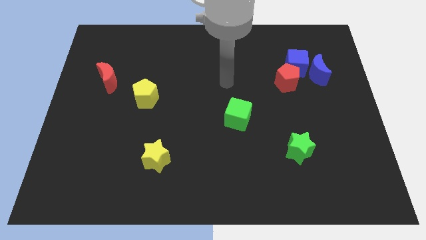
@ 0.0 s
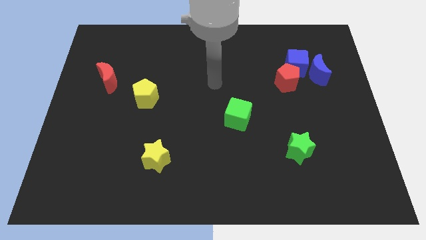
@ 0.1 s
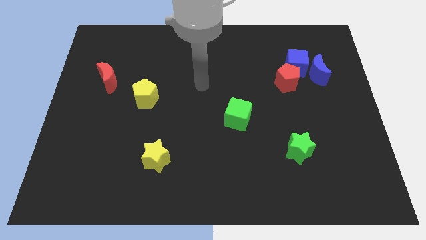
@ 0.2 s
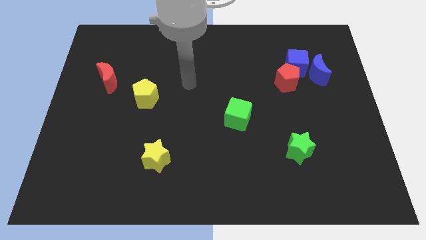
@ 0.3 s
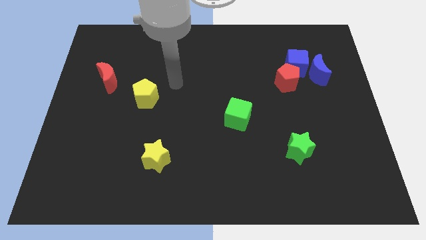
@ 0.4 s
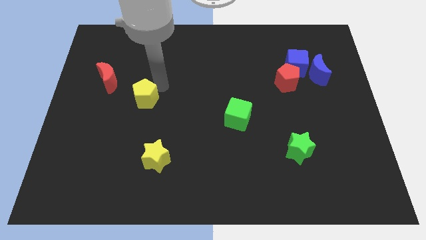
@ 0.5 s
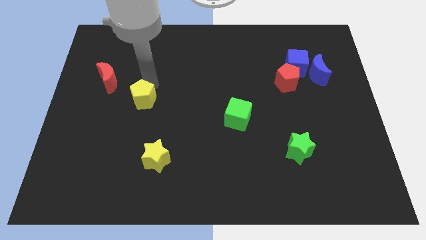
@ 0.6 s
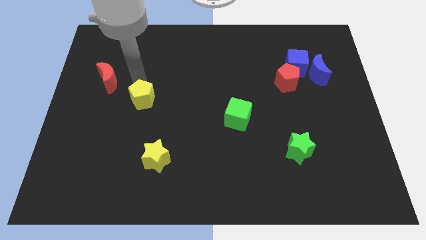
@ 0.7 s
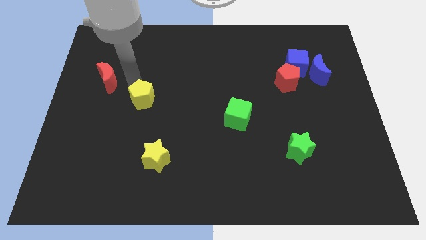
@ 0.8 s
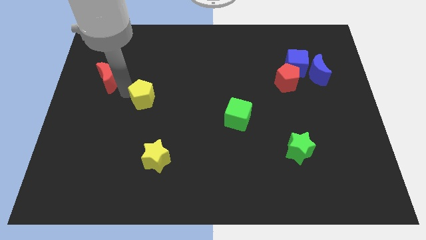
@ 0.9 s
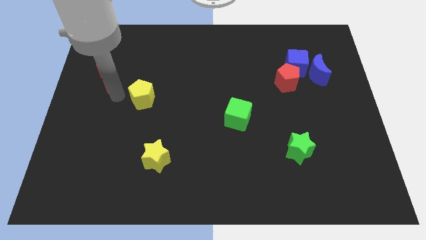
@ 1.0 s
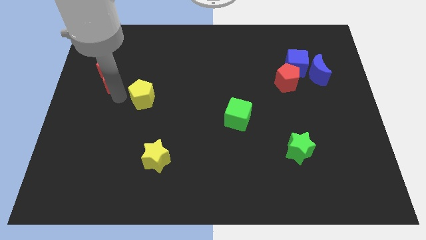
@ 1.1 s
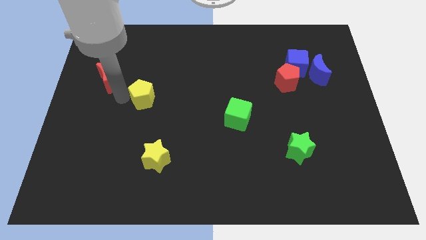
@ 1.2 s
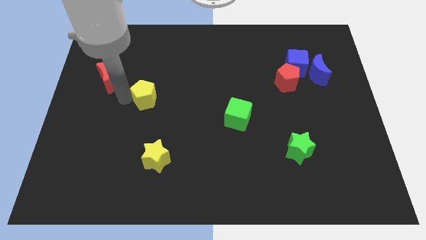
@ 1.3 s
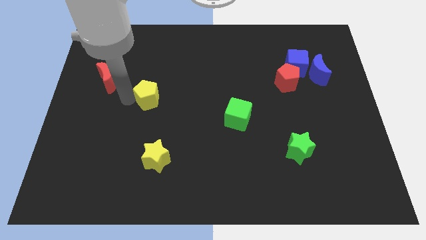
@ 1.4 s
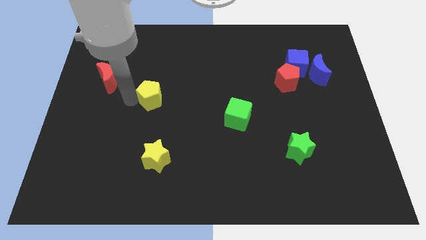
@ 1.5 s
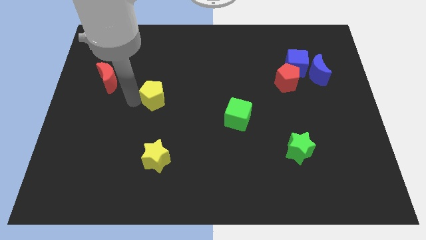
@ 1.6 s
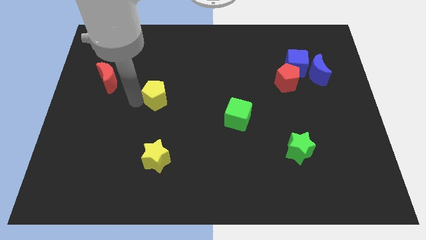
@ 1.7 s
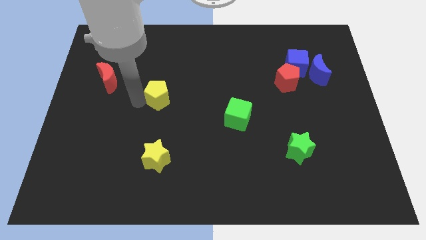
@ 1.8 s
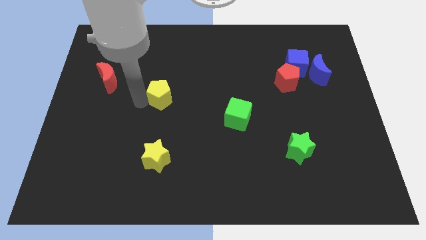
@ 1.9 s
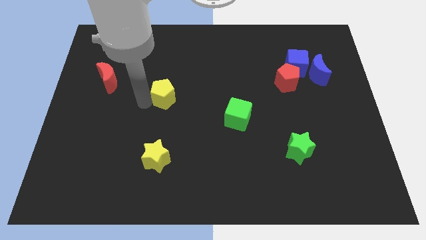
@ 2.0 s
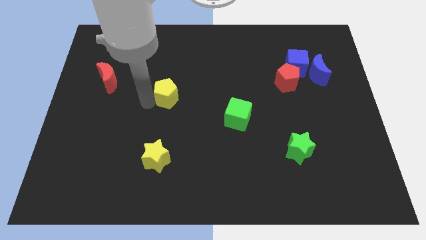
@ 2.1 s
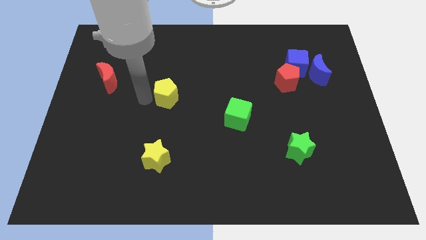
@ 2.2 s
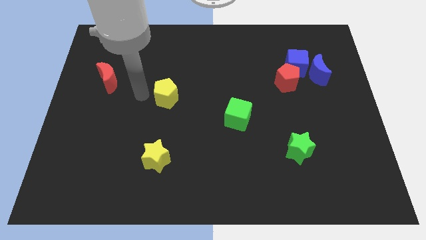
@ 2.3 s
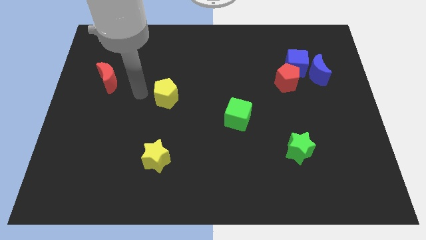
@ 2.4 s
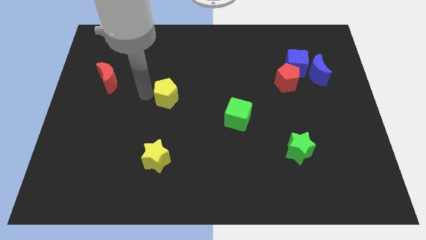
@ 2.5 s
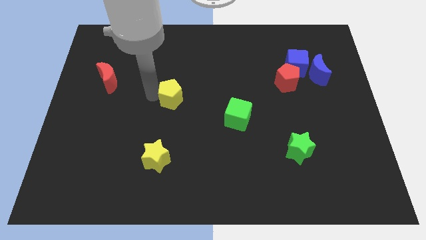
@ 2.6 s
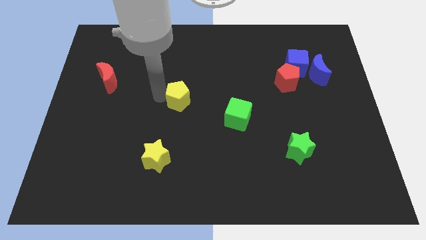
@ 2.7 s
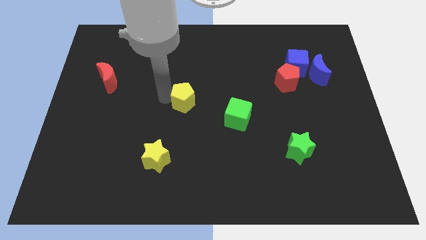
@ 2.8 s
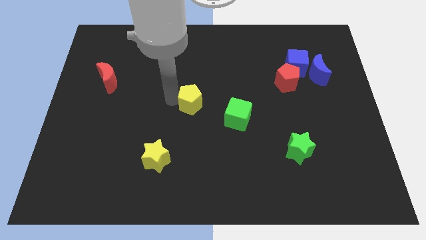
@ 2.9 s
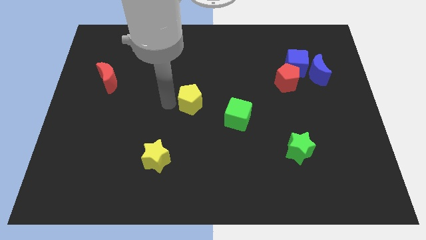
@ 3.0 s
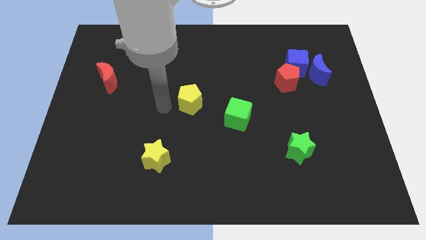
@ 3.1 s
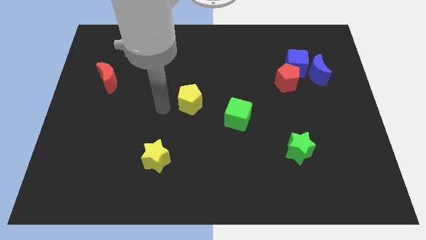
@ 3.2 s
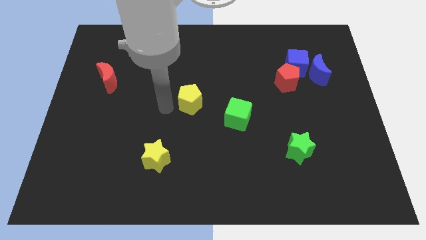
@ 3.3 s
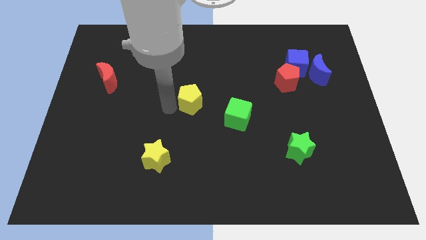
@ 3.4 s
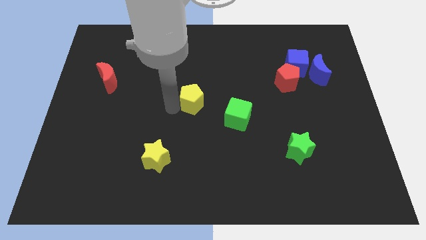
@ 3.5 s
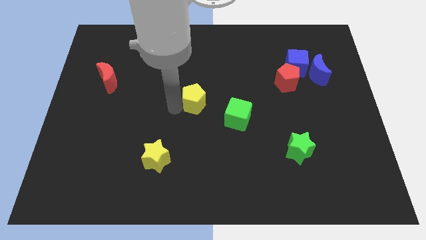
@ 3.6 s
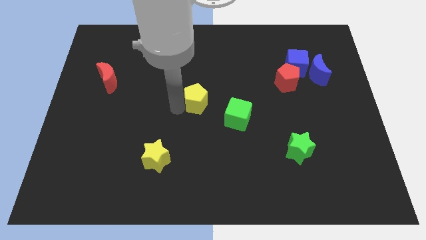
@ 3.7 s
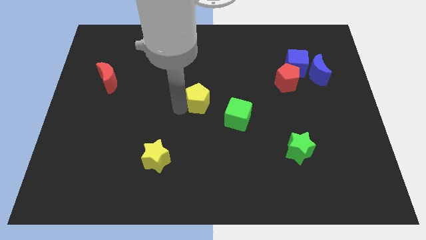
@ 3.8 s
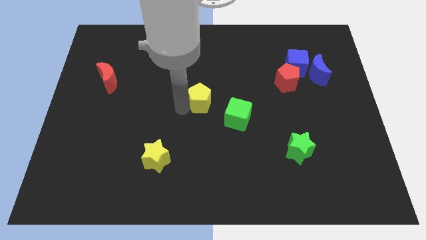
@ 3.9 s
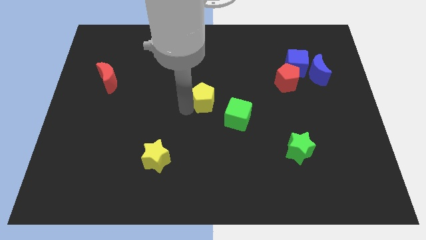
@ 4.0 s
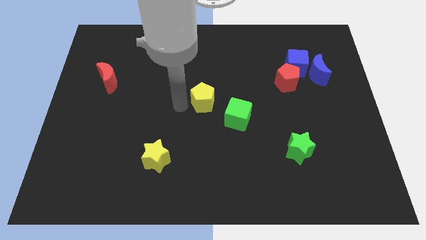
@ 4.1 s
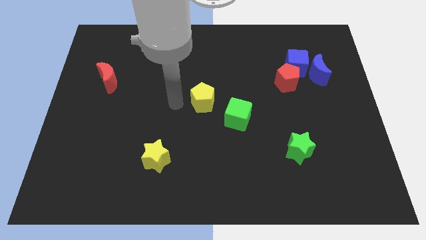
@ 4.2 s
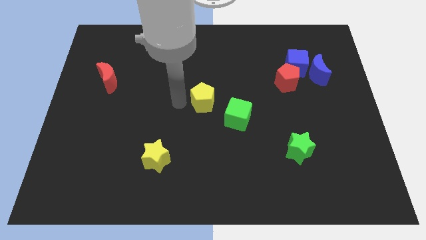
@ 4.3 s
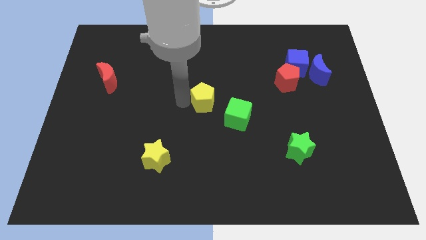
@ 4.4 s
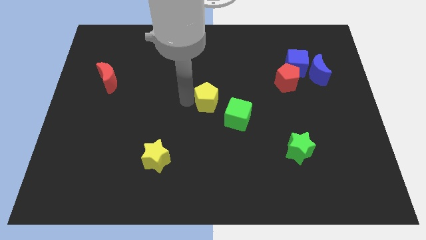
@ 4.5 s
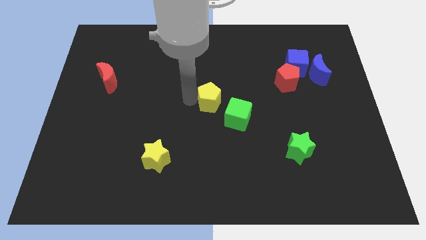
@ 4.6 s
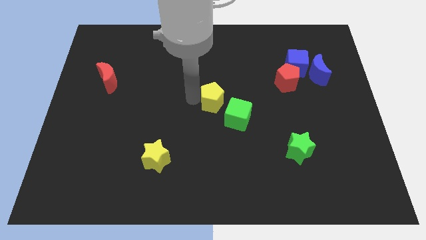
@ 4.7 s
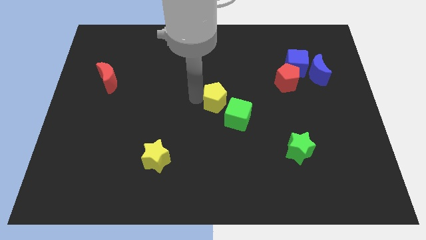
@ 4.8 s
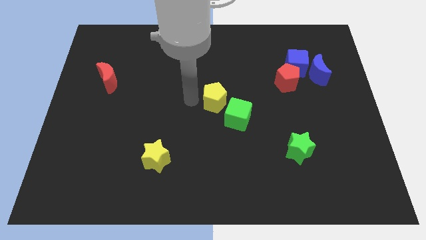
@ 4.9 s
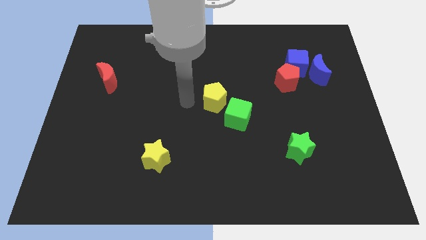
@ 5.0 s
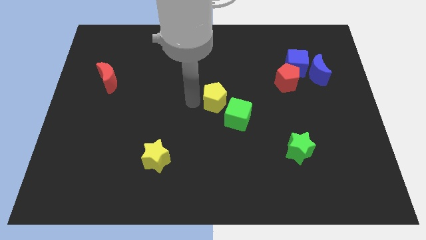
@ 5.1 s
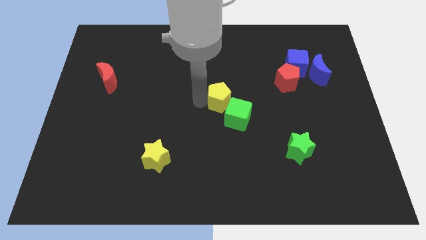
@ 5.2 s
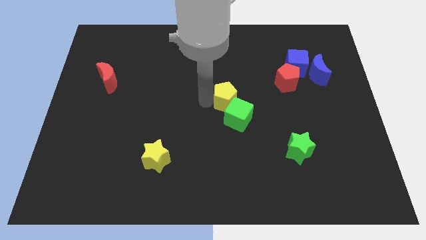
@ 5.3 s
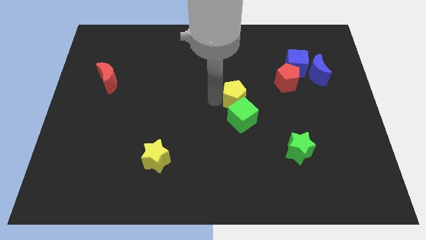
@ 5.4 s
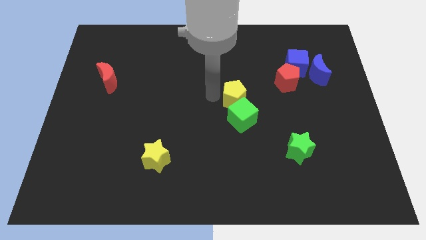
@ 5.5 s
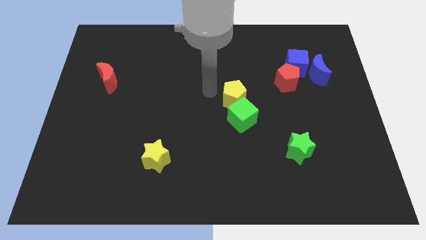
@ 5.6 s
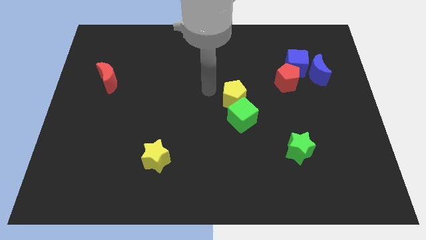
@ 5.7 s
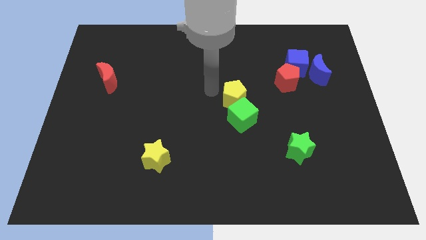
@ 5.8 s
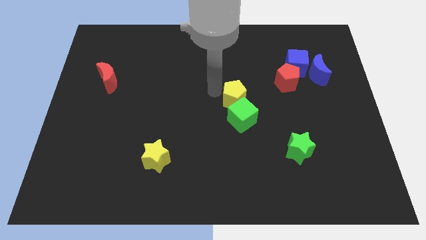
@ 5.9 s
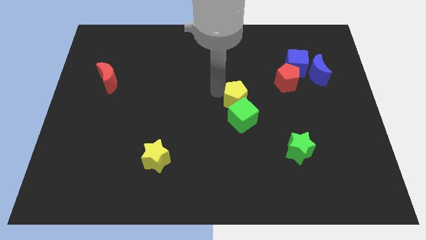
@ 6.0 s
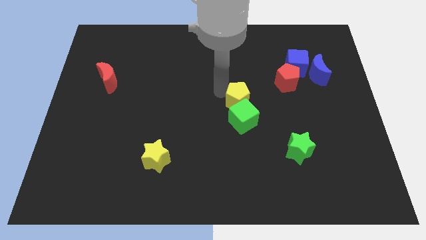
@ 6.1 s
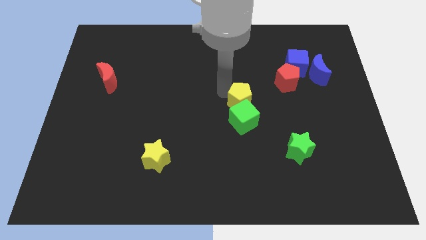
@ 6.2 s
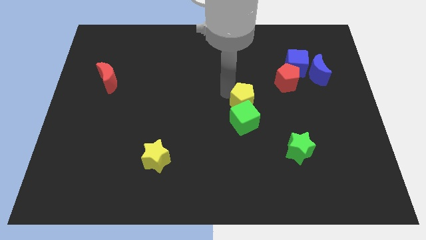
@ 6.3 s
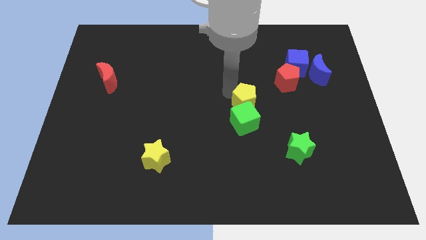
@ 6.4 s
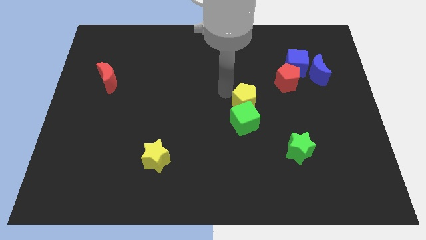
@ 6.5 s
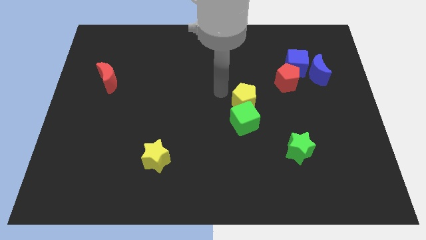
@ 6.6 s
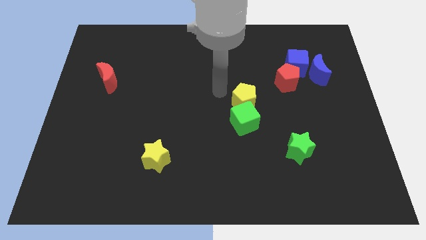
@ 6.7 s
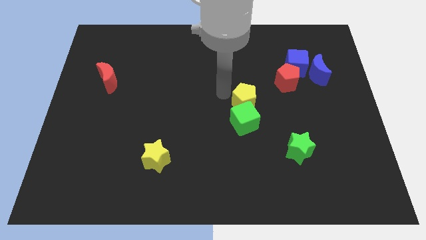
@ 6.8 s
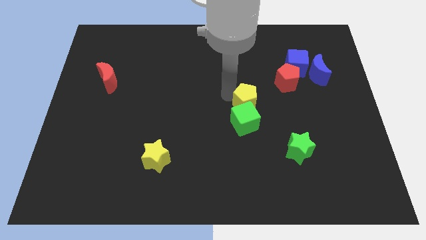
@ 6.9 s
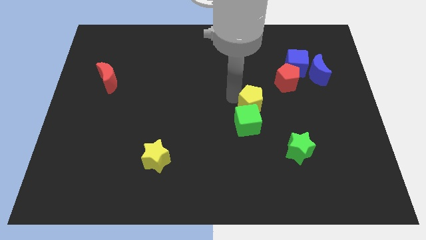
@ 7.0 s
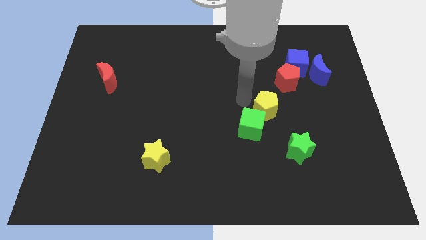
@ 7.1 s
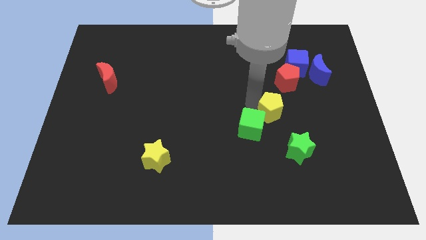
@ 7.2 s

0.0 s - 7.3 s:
put the yellow pentagon right of the green cube
